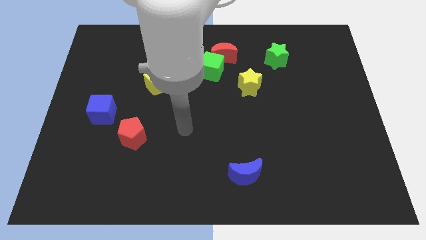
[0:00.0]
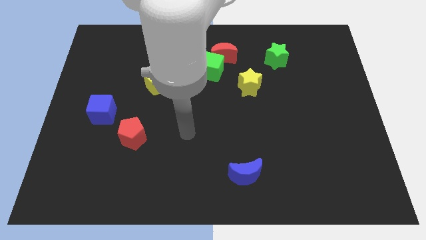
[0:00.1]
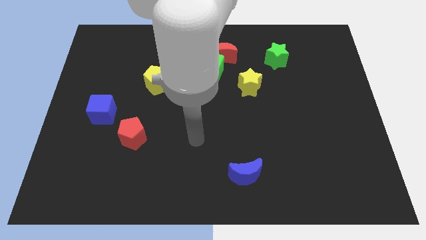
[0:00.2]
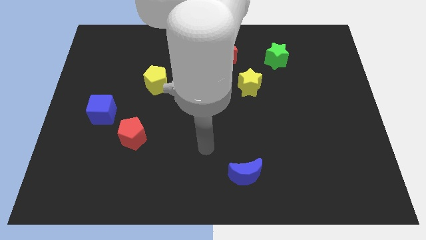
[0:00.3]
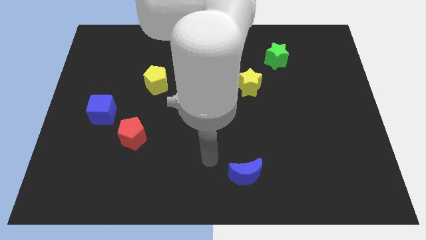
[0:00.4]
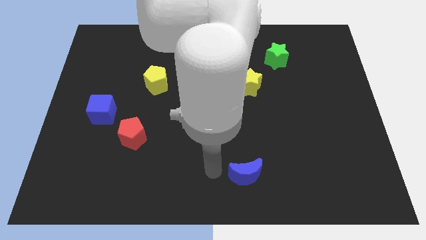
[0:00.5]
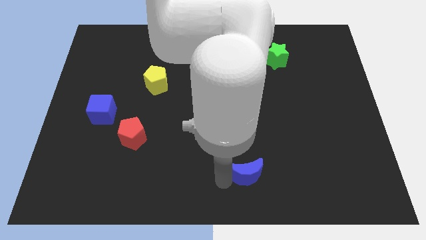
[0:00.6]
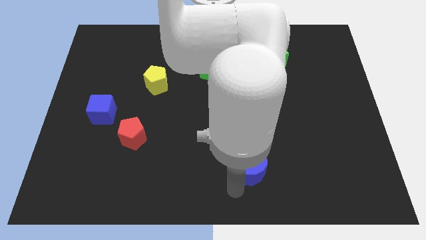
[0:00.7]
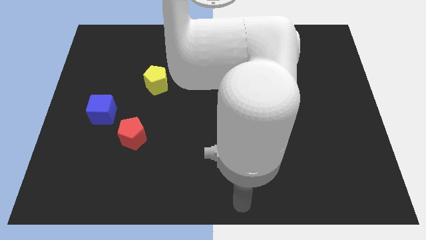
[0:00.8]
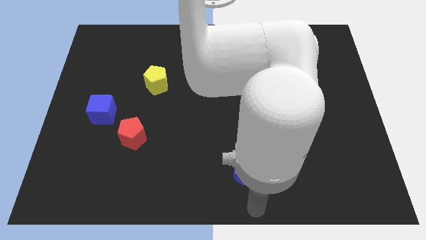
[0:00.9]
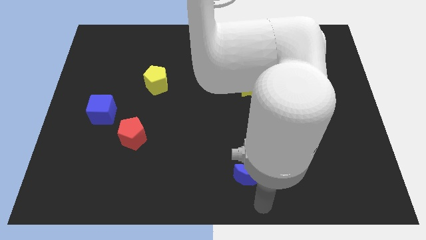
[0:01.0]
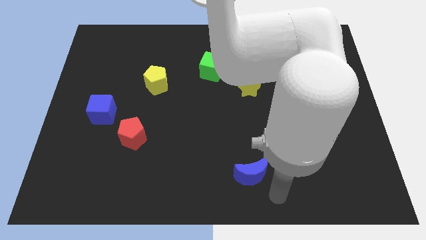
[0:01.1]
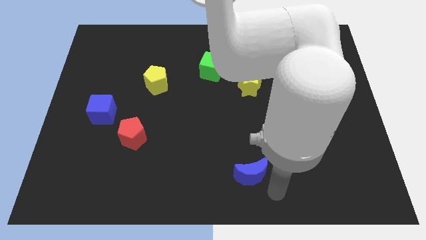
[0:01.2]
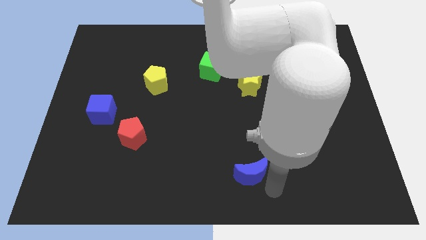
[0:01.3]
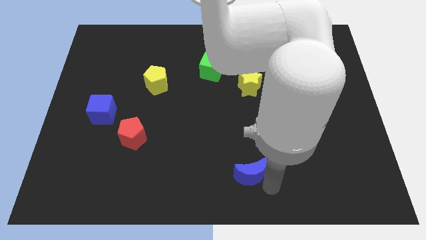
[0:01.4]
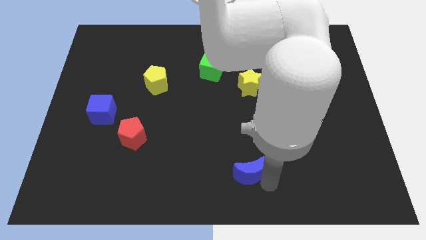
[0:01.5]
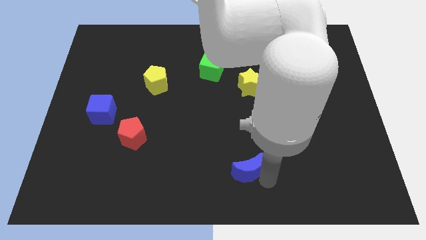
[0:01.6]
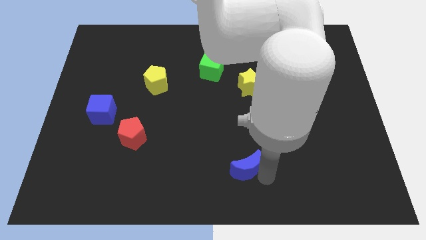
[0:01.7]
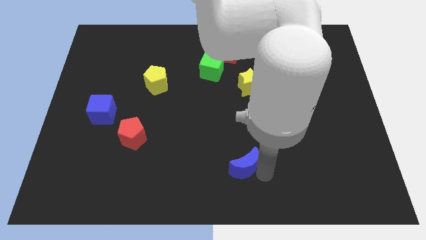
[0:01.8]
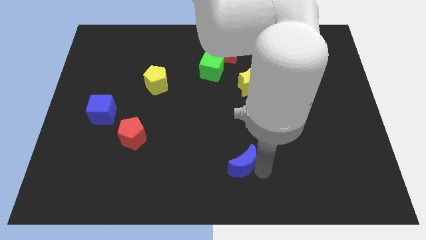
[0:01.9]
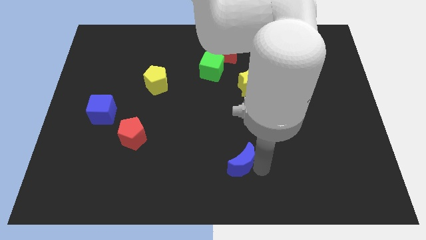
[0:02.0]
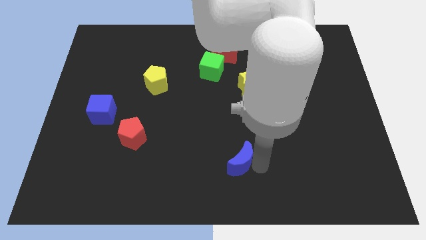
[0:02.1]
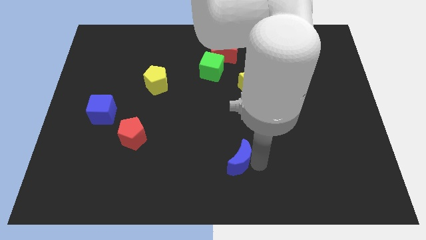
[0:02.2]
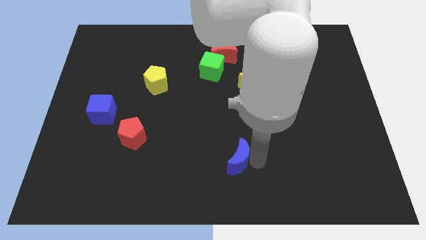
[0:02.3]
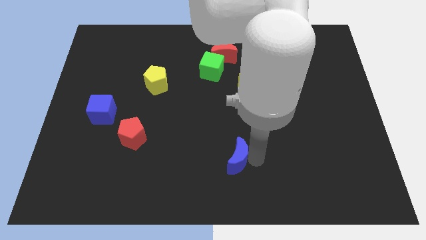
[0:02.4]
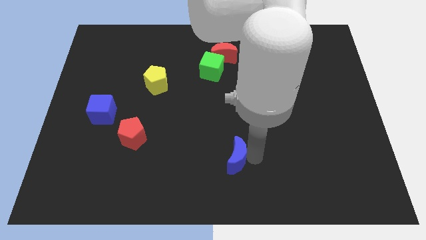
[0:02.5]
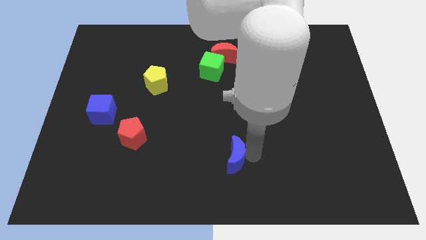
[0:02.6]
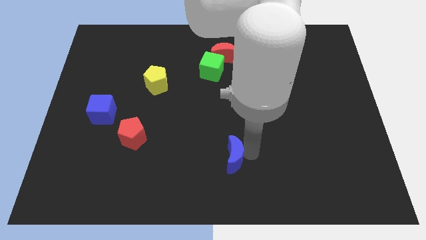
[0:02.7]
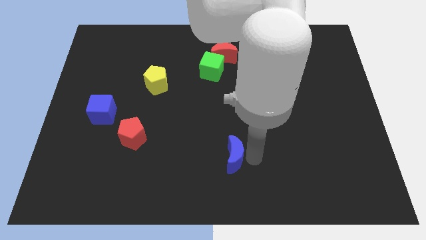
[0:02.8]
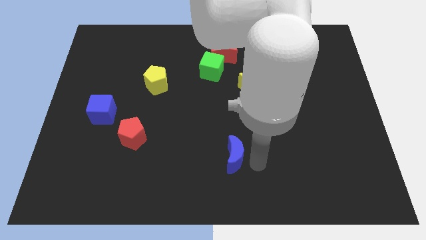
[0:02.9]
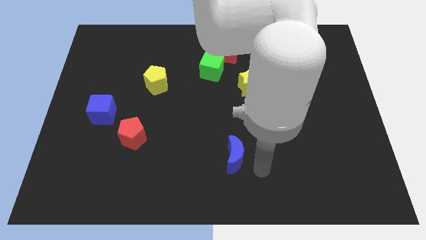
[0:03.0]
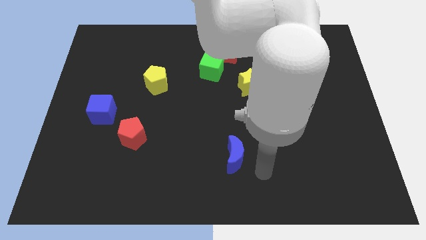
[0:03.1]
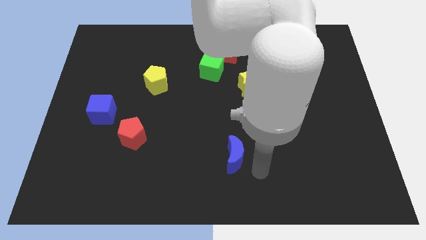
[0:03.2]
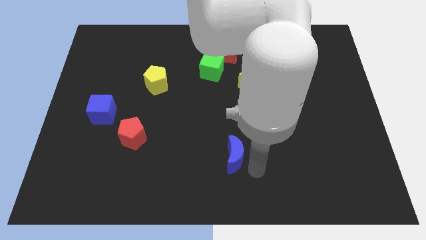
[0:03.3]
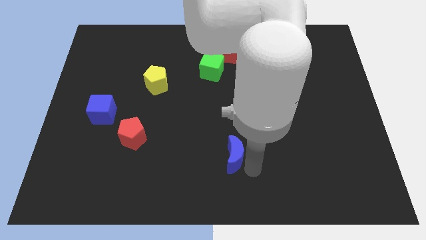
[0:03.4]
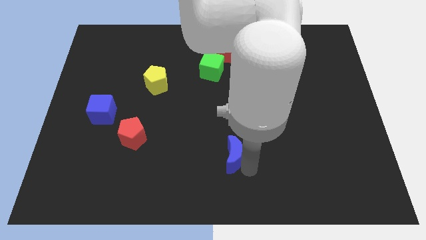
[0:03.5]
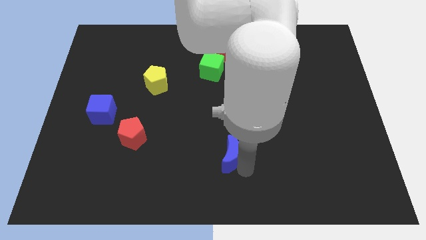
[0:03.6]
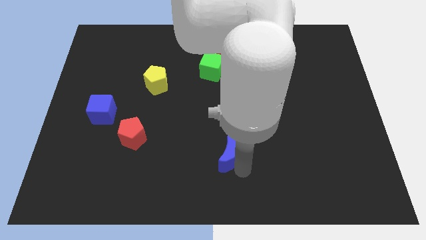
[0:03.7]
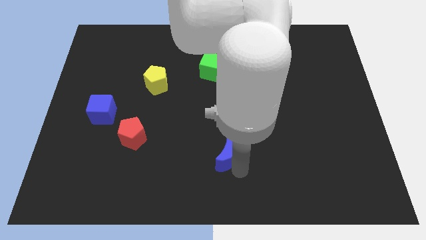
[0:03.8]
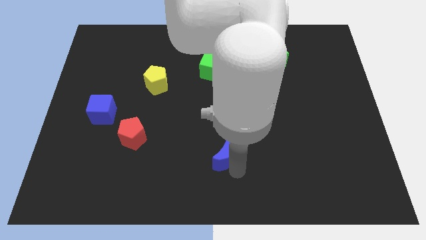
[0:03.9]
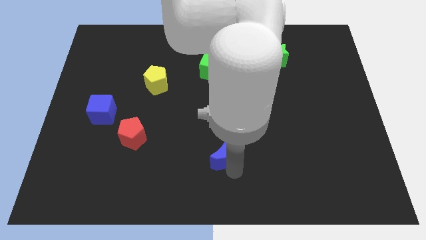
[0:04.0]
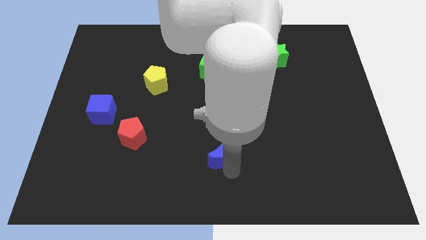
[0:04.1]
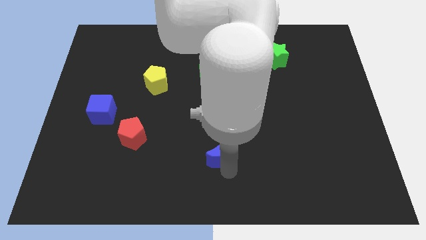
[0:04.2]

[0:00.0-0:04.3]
slightly move the blue moon up and to the left diagonally

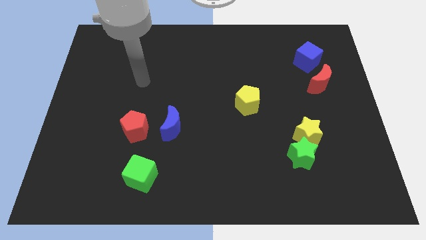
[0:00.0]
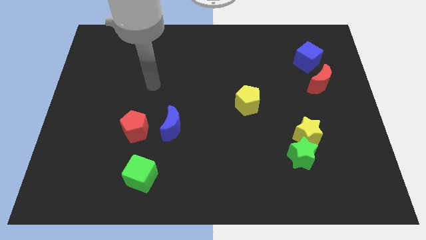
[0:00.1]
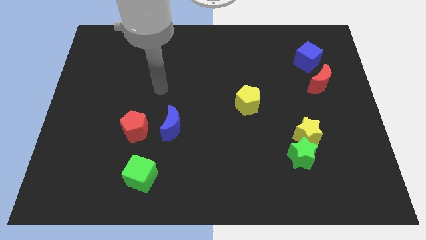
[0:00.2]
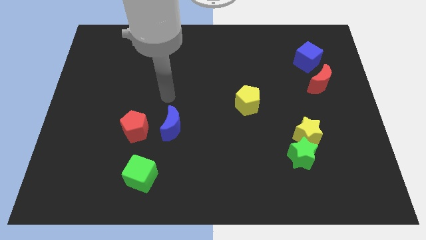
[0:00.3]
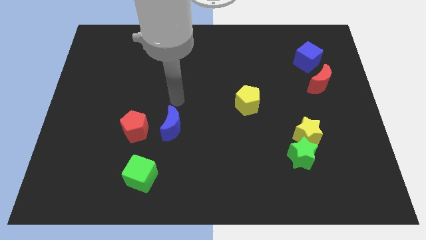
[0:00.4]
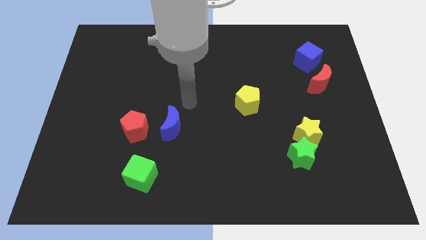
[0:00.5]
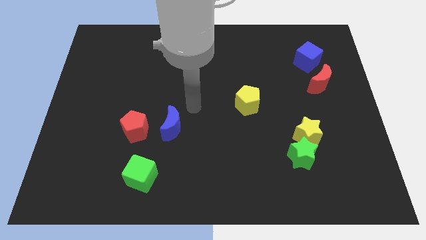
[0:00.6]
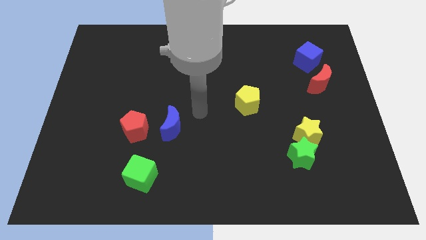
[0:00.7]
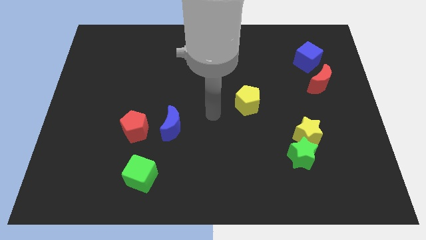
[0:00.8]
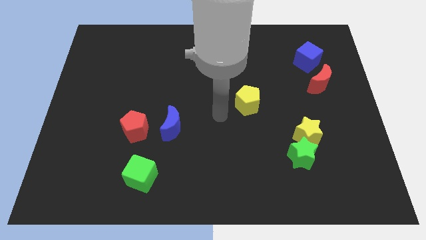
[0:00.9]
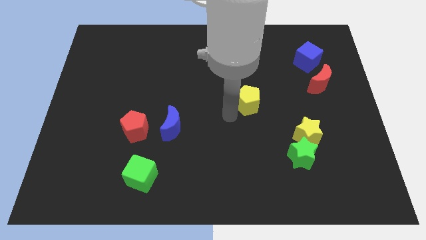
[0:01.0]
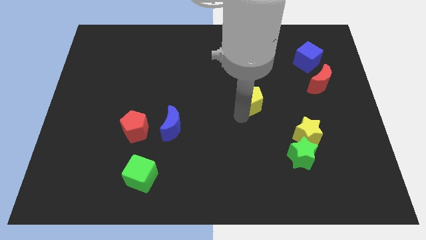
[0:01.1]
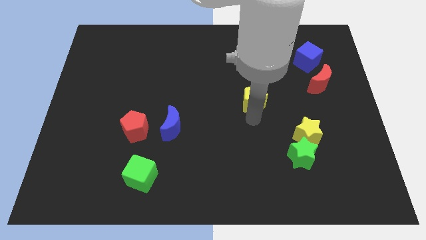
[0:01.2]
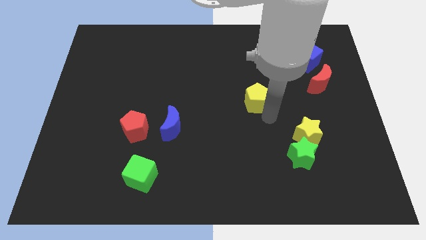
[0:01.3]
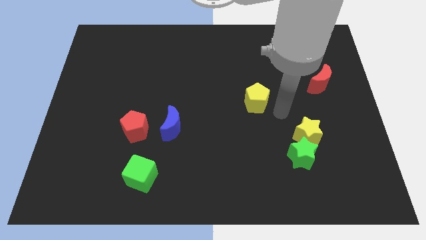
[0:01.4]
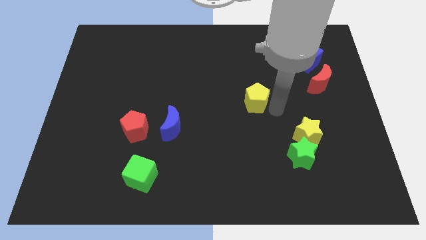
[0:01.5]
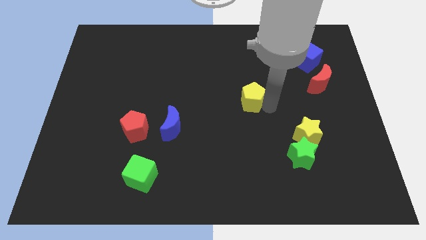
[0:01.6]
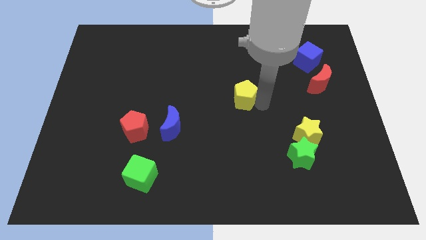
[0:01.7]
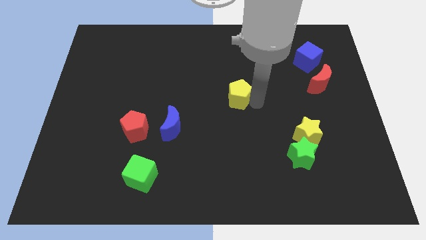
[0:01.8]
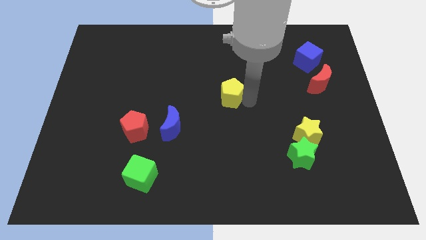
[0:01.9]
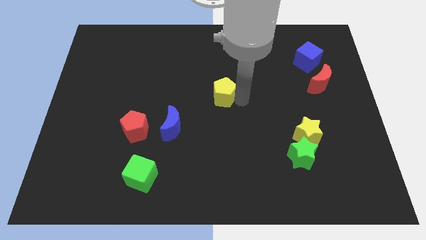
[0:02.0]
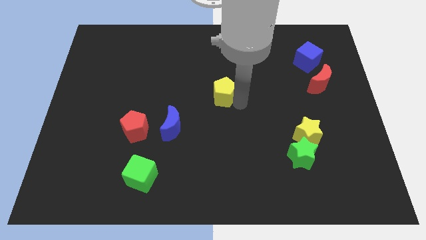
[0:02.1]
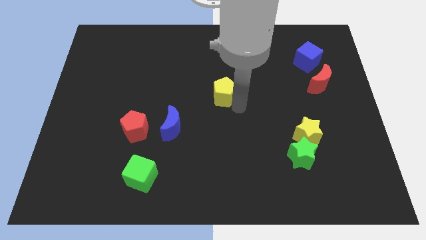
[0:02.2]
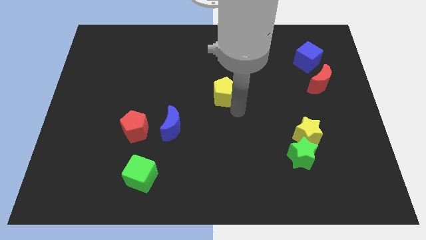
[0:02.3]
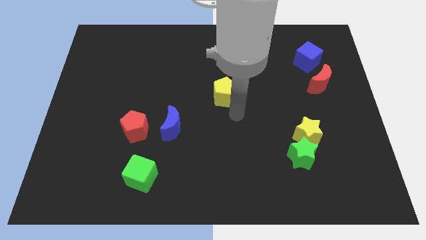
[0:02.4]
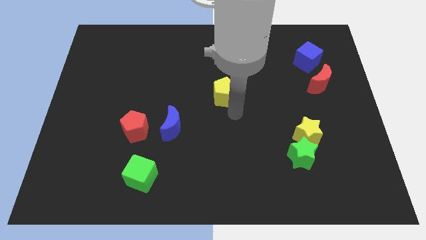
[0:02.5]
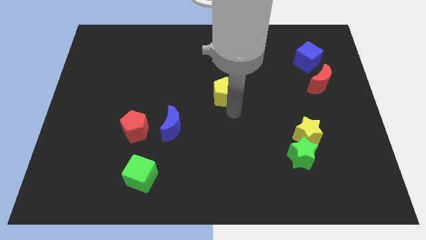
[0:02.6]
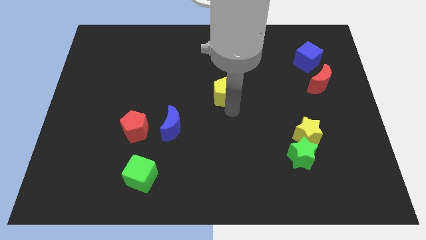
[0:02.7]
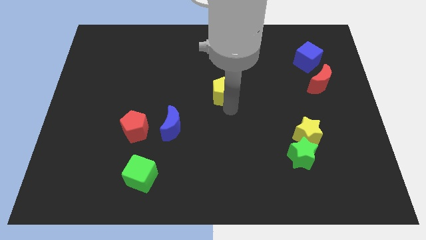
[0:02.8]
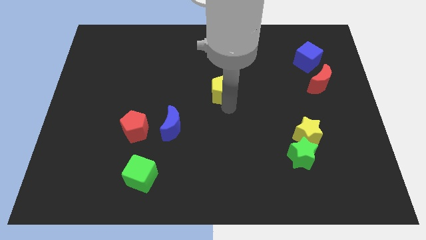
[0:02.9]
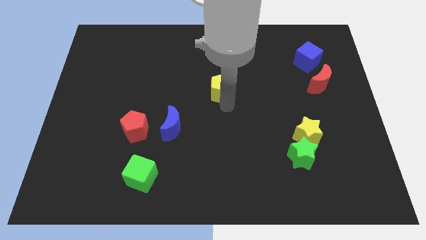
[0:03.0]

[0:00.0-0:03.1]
push the yellow pentagon diagonally up and to the left a bit
